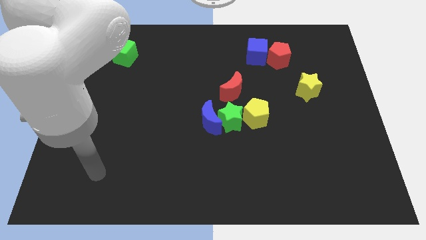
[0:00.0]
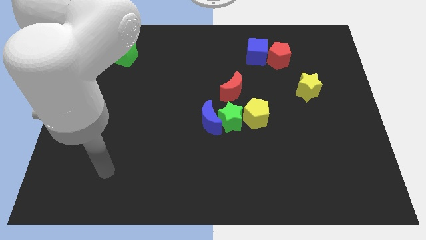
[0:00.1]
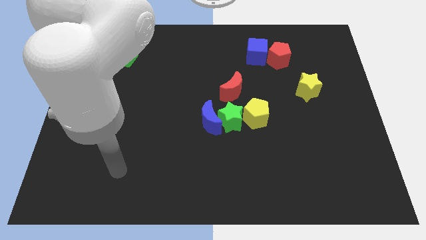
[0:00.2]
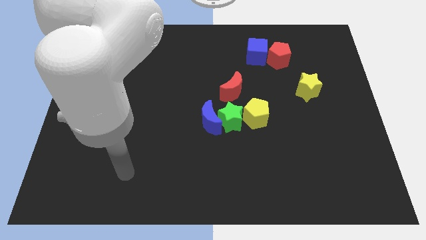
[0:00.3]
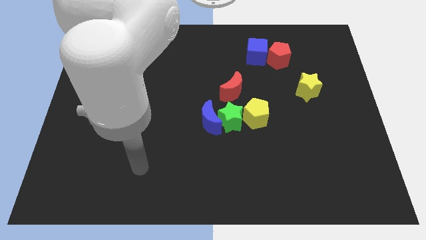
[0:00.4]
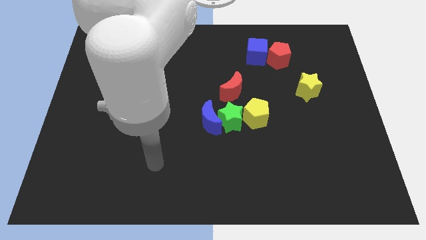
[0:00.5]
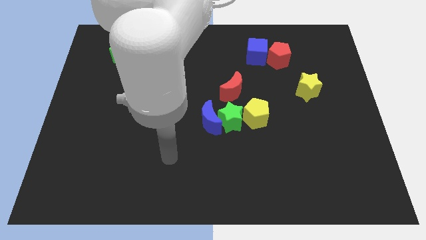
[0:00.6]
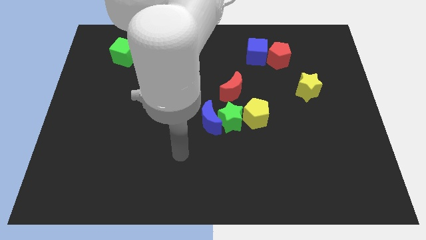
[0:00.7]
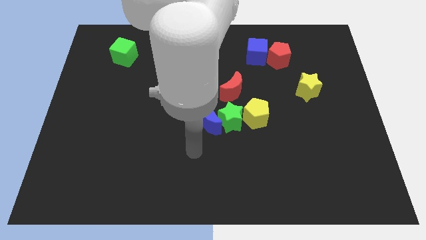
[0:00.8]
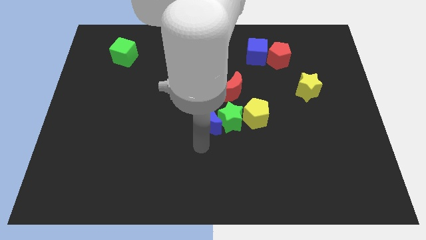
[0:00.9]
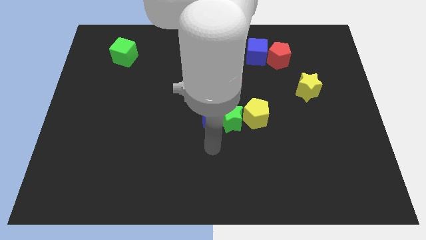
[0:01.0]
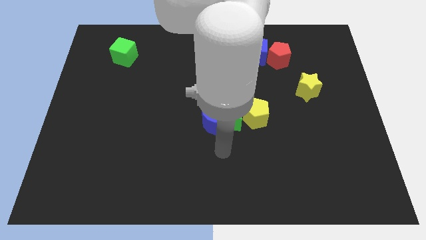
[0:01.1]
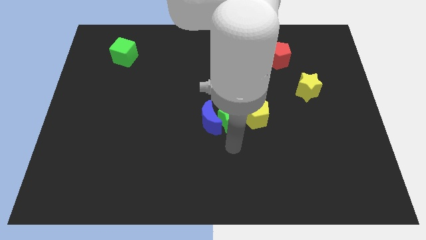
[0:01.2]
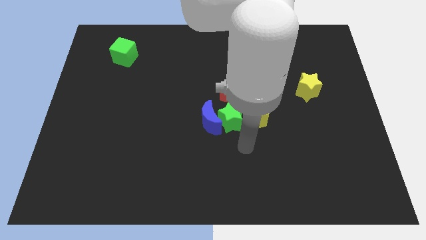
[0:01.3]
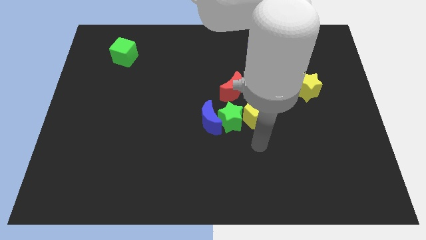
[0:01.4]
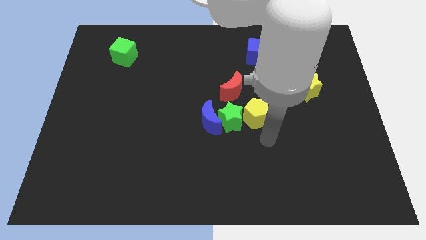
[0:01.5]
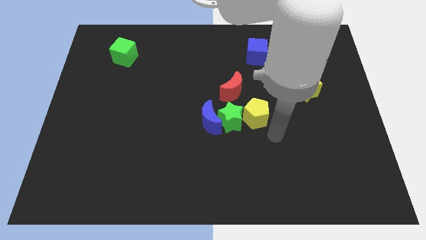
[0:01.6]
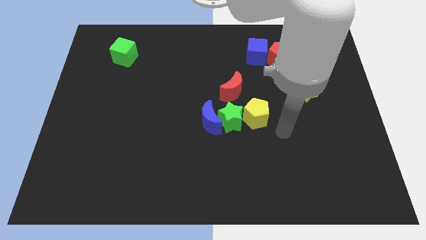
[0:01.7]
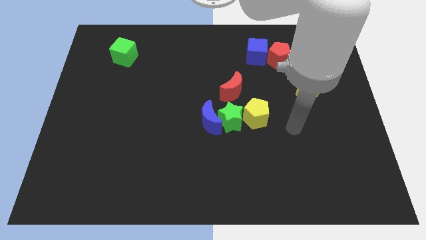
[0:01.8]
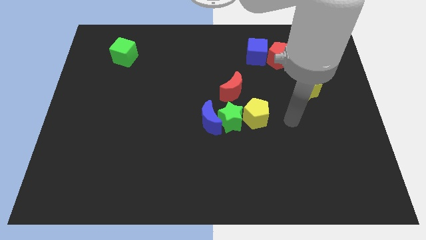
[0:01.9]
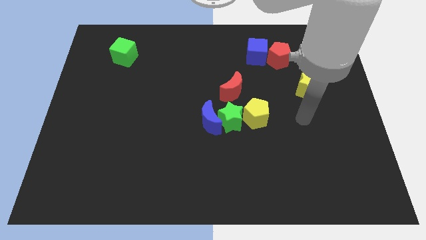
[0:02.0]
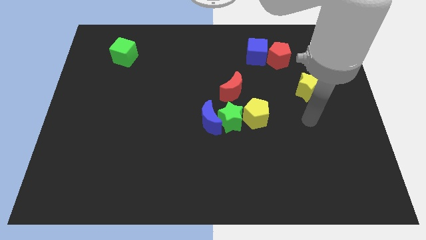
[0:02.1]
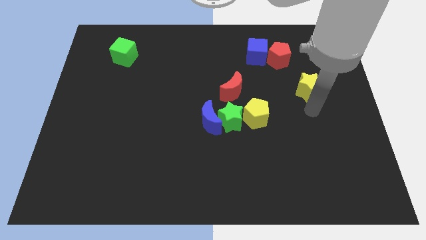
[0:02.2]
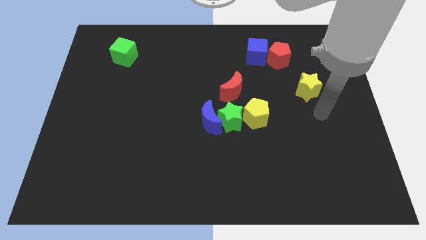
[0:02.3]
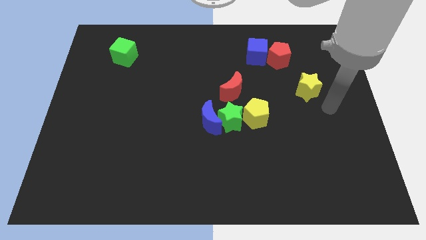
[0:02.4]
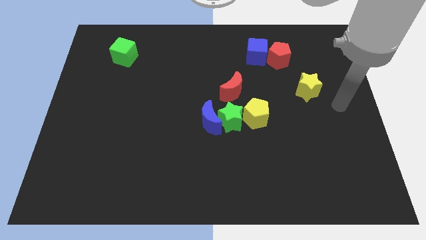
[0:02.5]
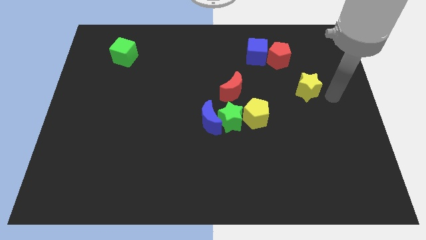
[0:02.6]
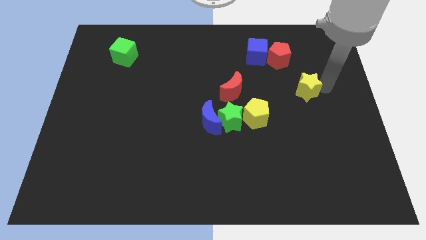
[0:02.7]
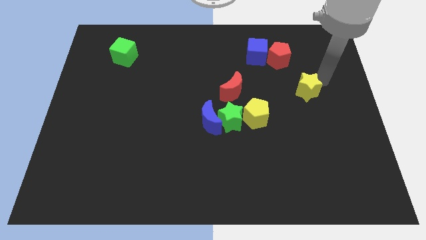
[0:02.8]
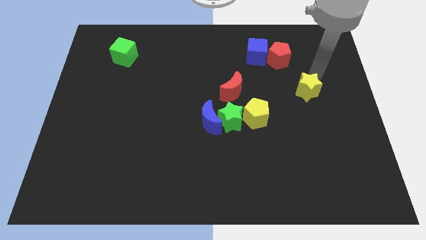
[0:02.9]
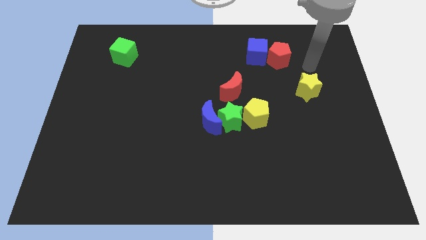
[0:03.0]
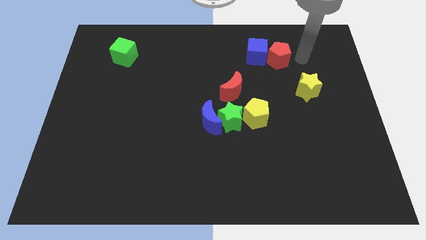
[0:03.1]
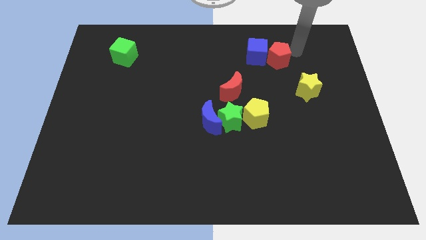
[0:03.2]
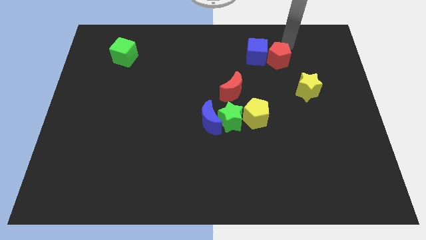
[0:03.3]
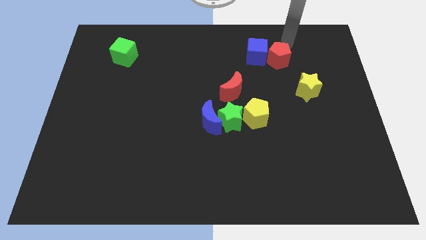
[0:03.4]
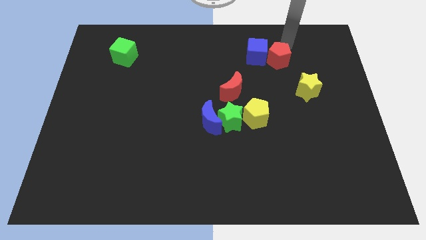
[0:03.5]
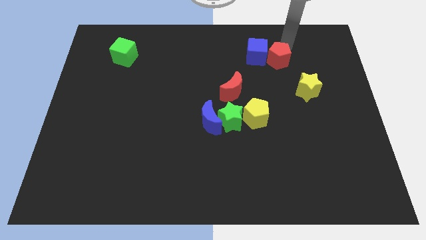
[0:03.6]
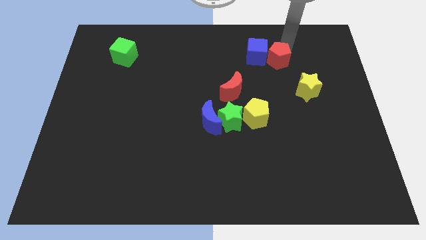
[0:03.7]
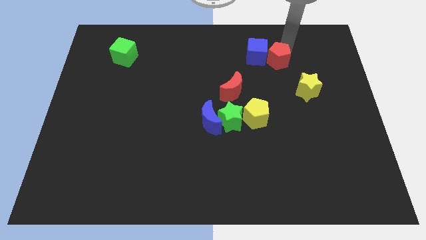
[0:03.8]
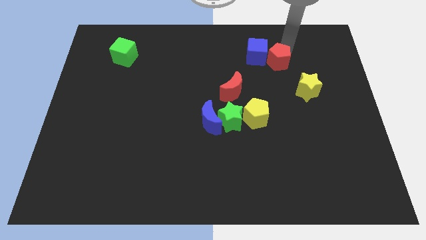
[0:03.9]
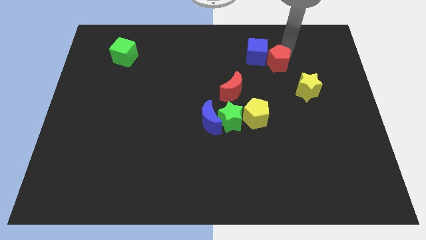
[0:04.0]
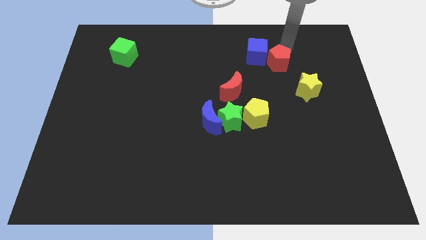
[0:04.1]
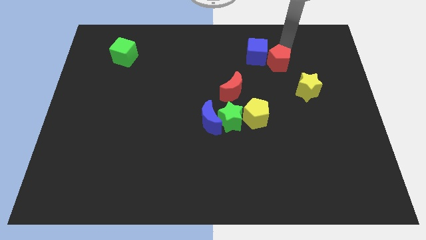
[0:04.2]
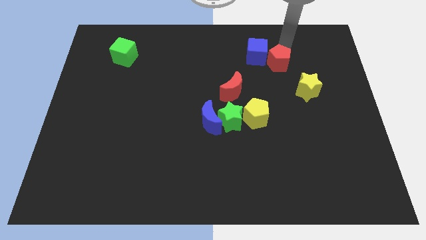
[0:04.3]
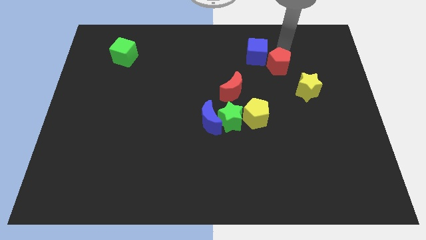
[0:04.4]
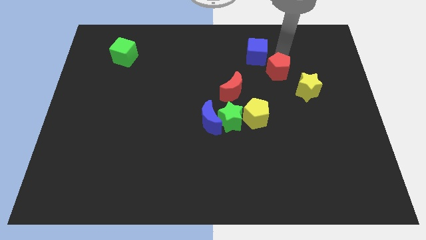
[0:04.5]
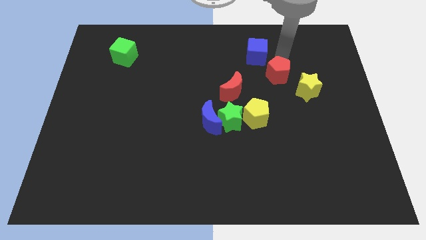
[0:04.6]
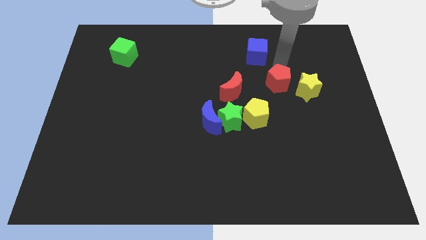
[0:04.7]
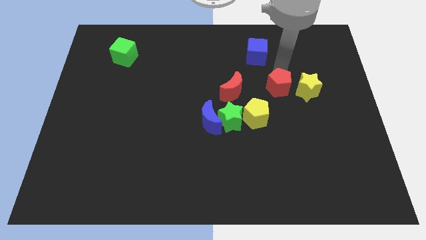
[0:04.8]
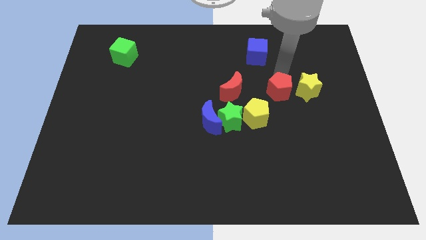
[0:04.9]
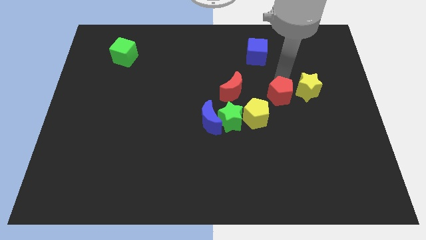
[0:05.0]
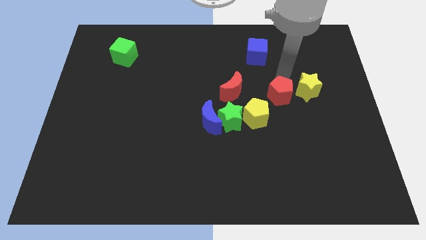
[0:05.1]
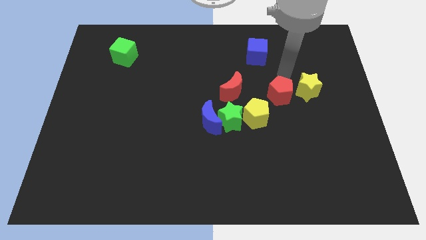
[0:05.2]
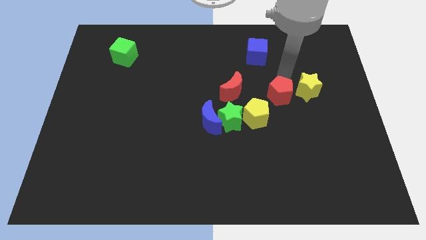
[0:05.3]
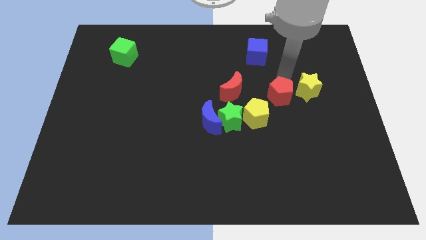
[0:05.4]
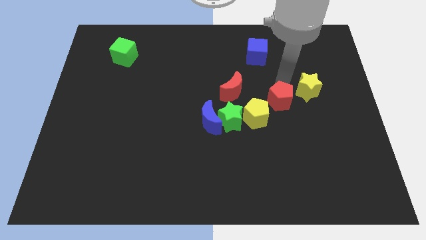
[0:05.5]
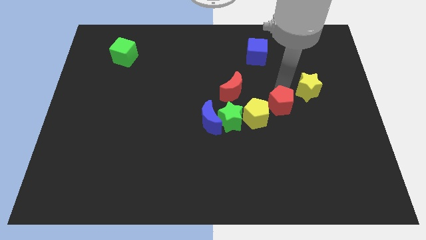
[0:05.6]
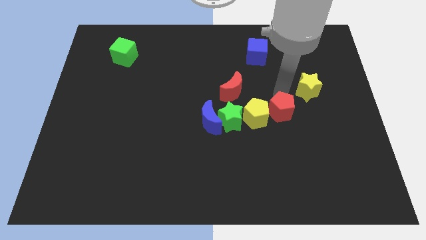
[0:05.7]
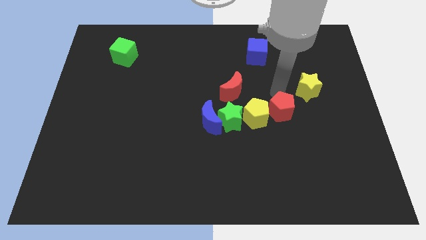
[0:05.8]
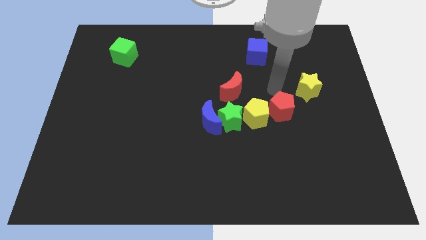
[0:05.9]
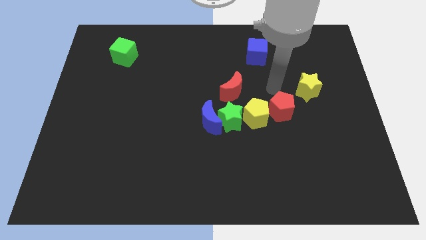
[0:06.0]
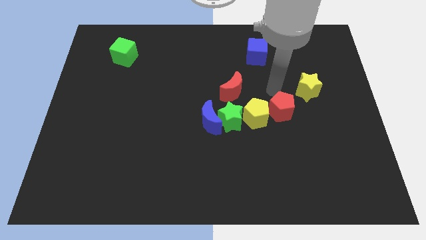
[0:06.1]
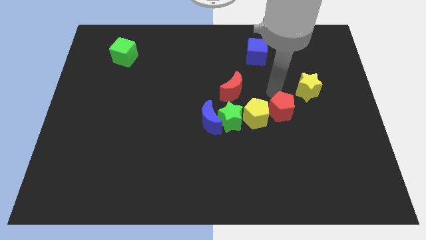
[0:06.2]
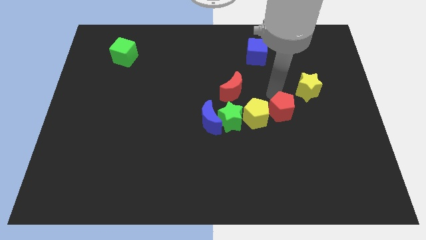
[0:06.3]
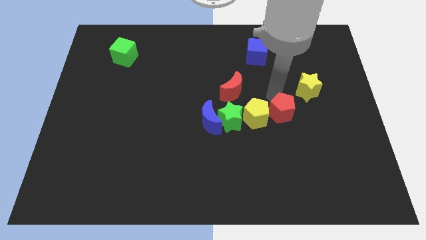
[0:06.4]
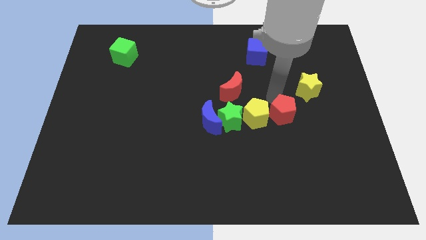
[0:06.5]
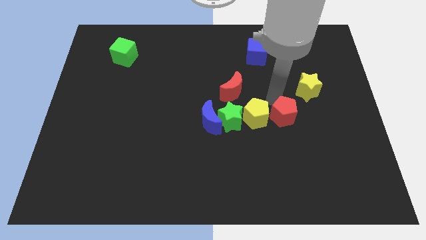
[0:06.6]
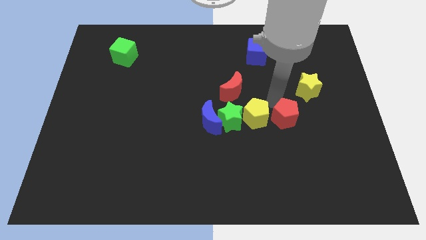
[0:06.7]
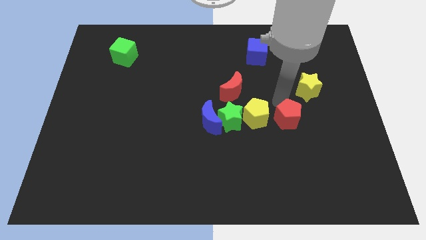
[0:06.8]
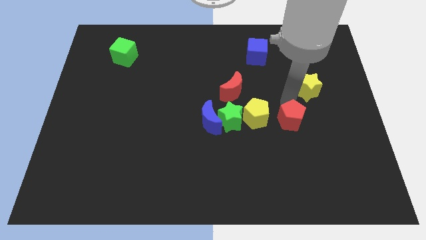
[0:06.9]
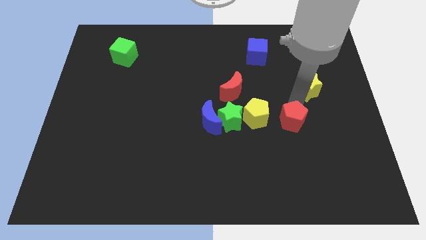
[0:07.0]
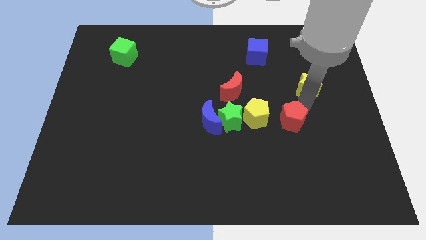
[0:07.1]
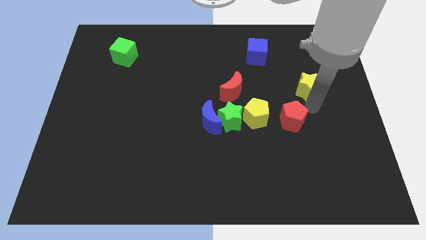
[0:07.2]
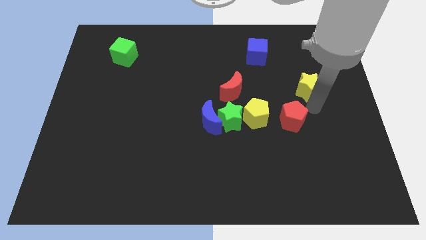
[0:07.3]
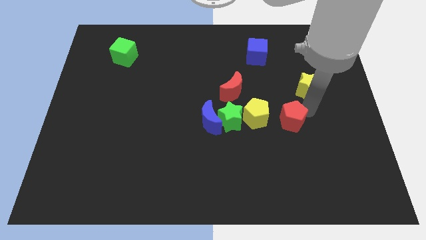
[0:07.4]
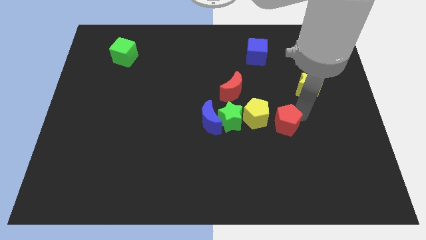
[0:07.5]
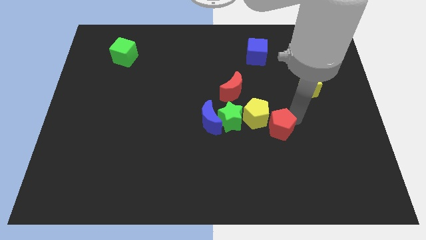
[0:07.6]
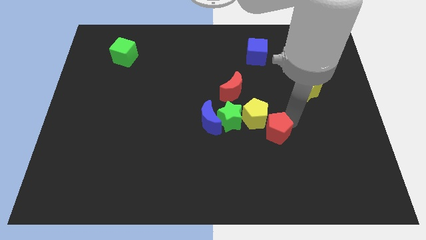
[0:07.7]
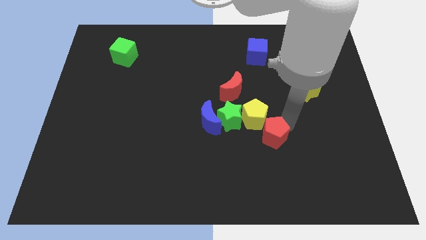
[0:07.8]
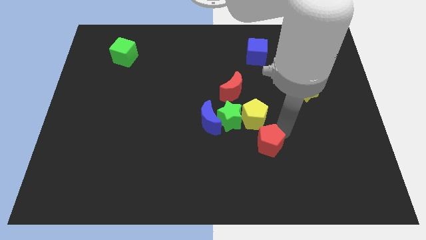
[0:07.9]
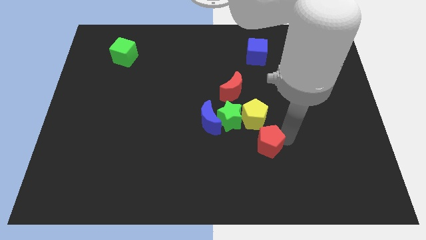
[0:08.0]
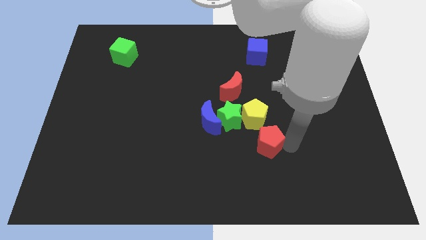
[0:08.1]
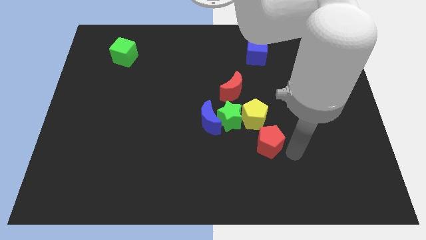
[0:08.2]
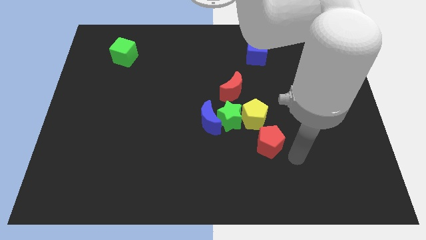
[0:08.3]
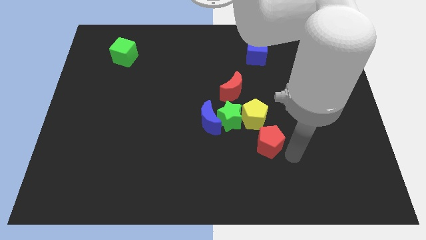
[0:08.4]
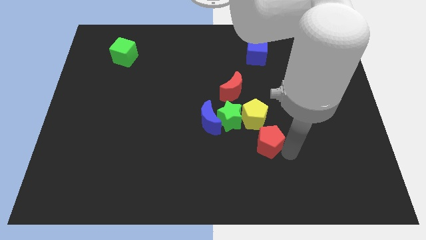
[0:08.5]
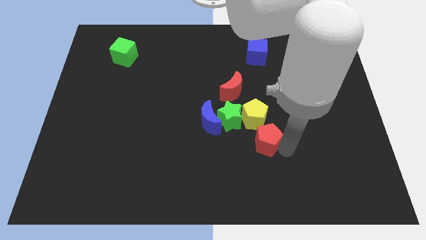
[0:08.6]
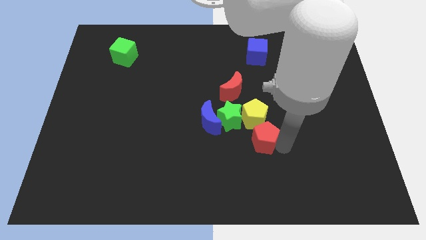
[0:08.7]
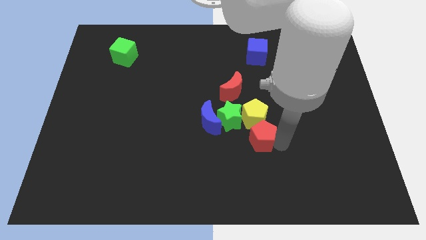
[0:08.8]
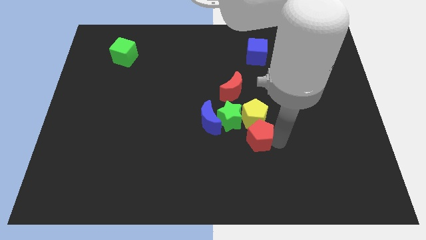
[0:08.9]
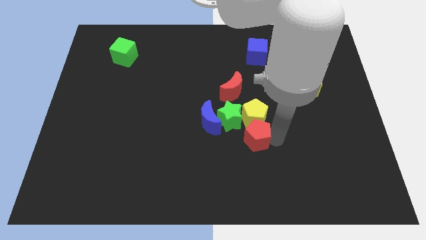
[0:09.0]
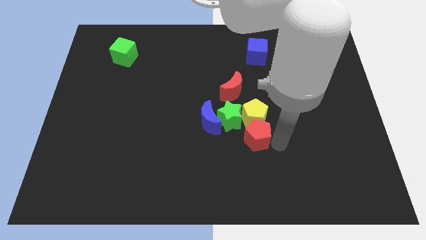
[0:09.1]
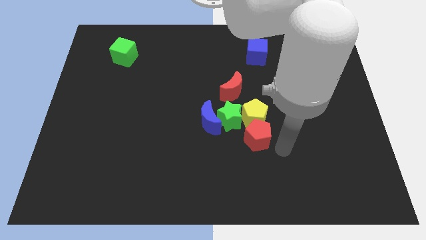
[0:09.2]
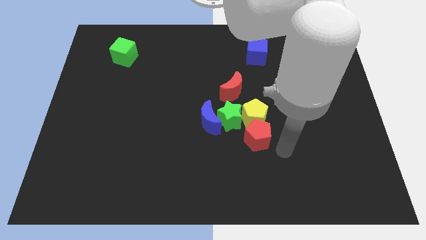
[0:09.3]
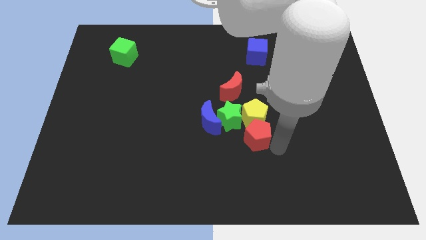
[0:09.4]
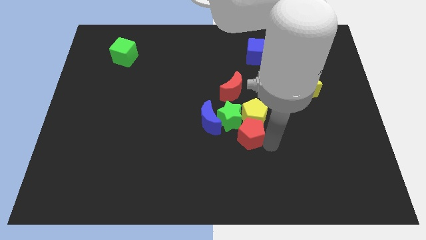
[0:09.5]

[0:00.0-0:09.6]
slide the red pentagon below the red moon
